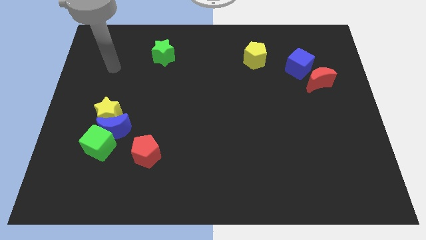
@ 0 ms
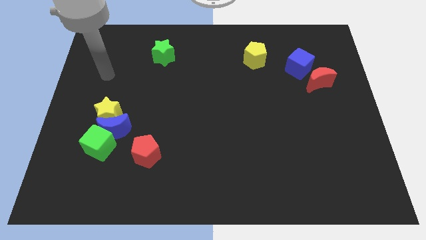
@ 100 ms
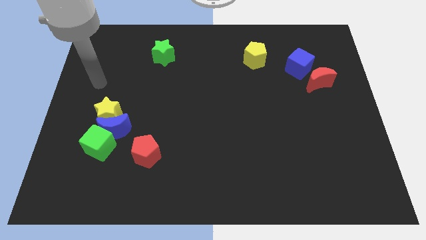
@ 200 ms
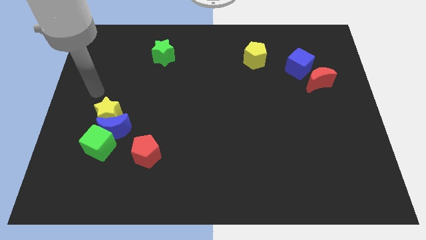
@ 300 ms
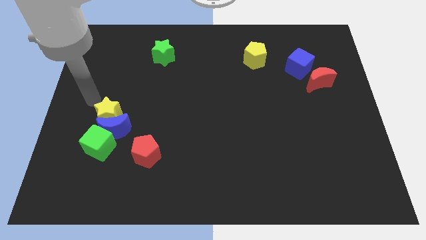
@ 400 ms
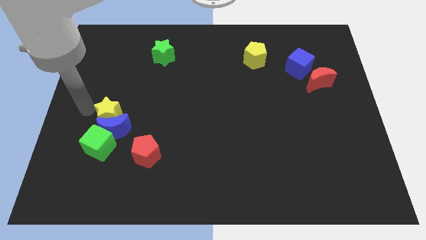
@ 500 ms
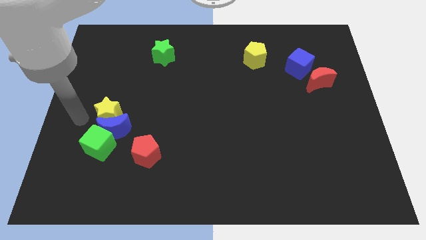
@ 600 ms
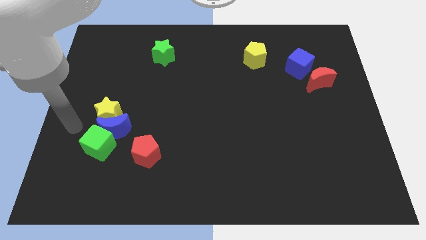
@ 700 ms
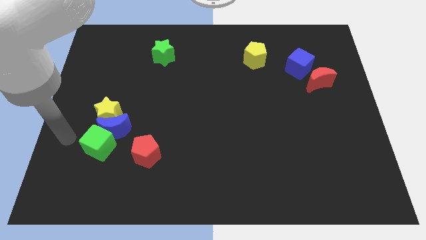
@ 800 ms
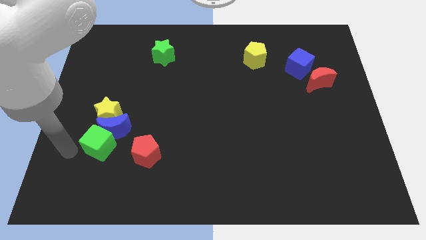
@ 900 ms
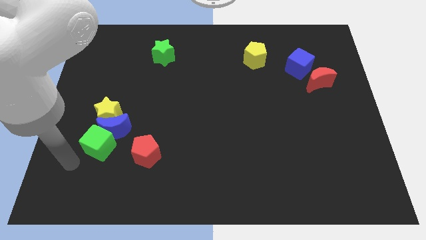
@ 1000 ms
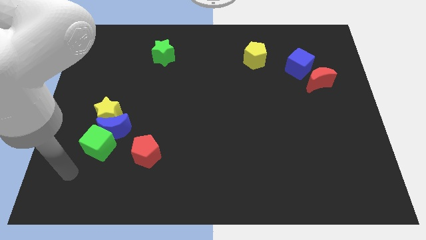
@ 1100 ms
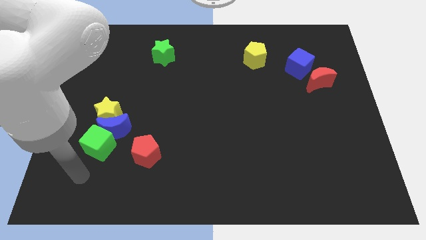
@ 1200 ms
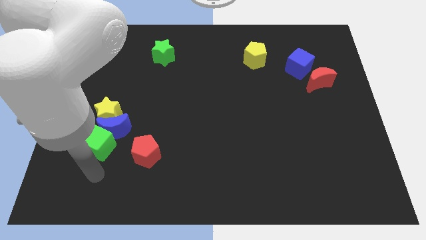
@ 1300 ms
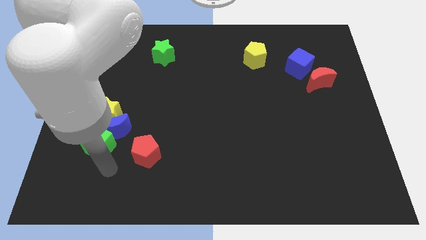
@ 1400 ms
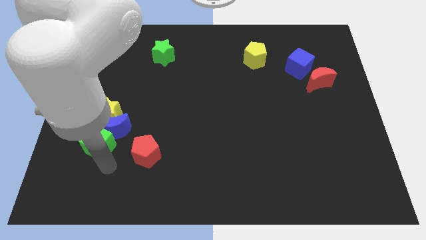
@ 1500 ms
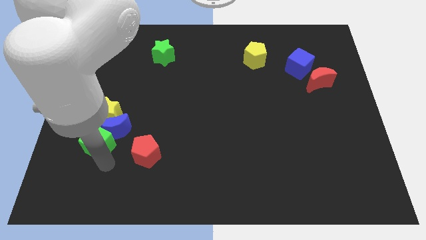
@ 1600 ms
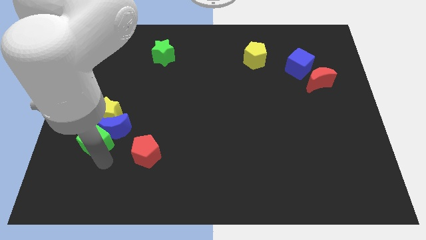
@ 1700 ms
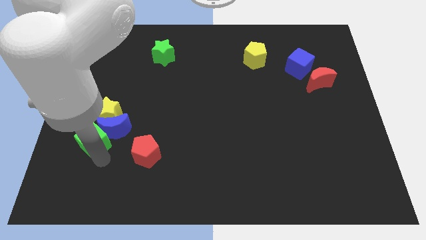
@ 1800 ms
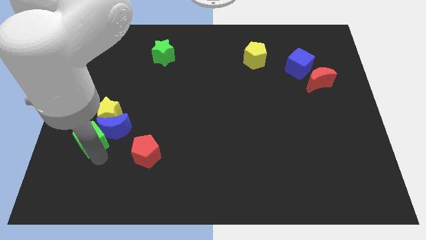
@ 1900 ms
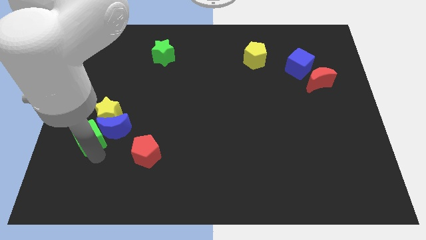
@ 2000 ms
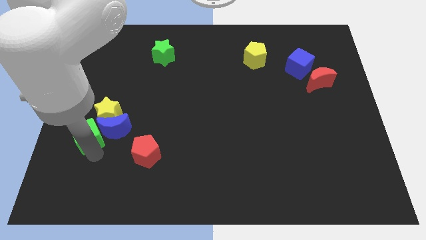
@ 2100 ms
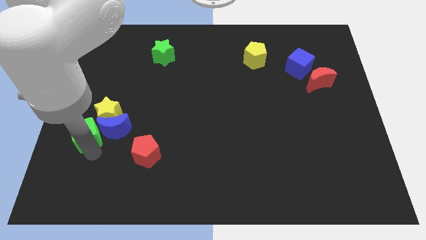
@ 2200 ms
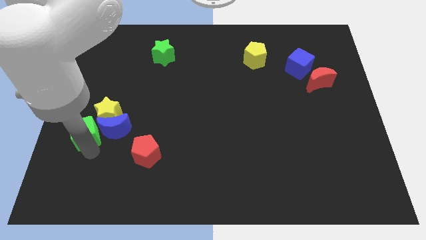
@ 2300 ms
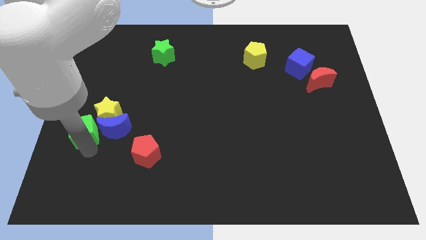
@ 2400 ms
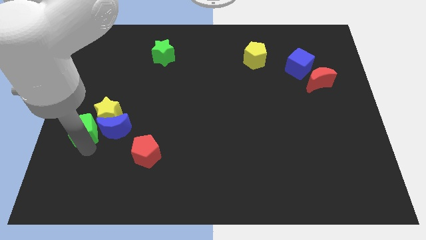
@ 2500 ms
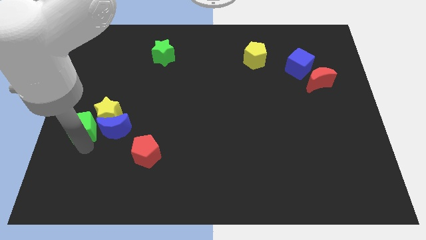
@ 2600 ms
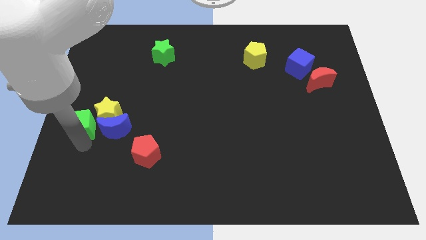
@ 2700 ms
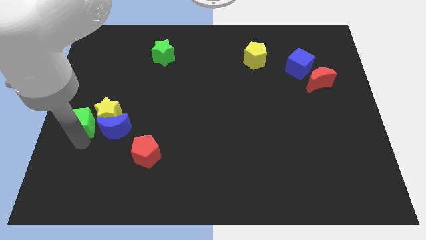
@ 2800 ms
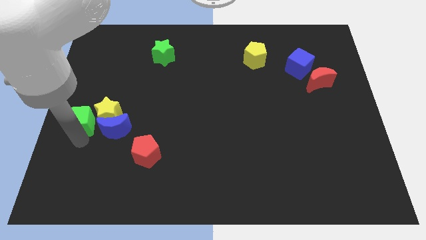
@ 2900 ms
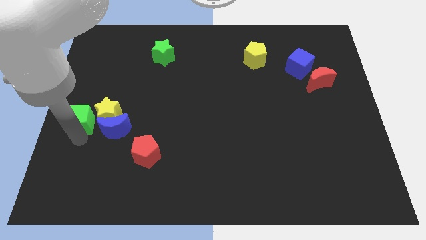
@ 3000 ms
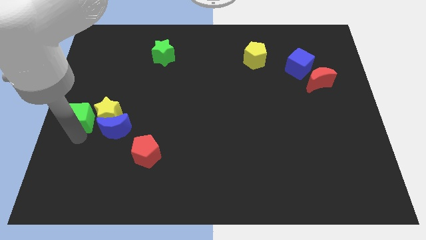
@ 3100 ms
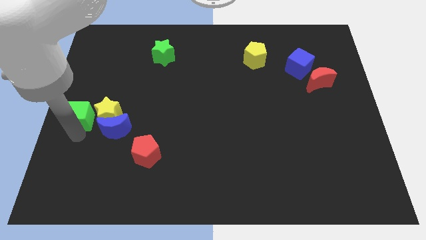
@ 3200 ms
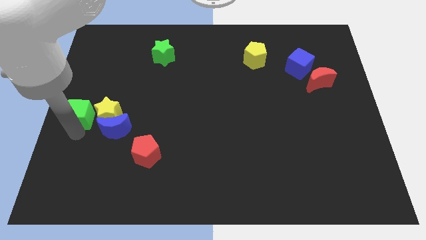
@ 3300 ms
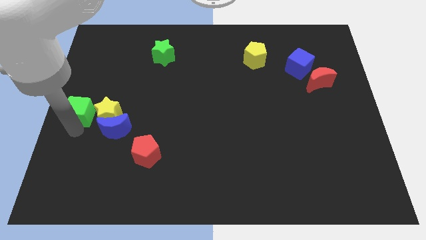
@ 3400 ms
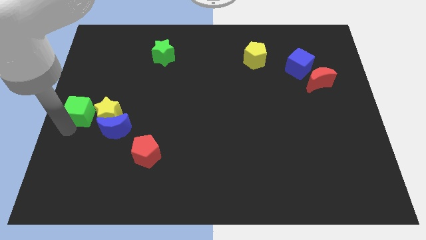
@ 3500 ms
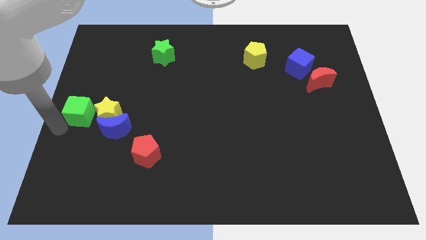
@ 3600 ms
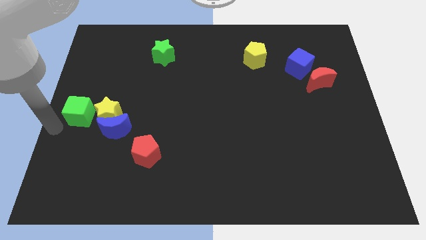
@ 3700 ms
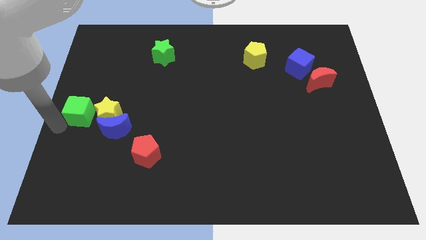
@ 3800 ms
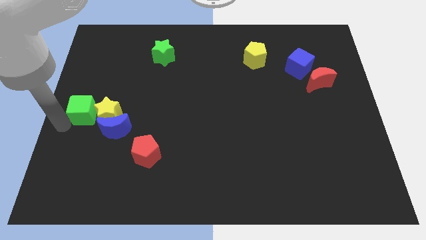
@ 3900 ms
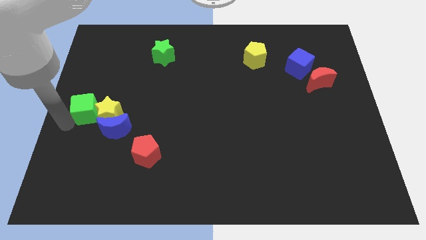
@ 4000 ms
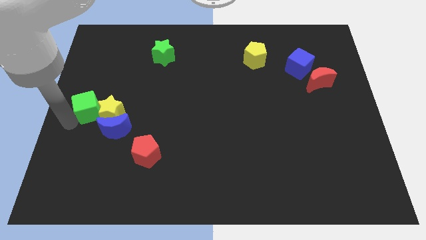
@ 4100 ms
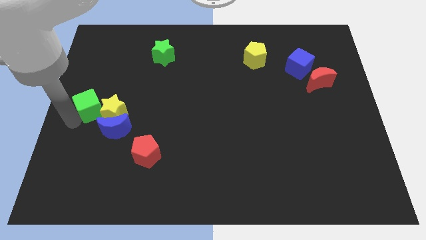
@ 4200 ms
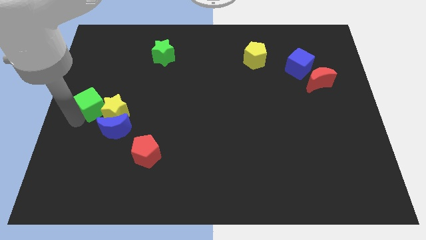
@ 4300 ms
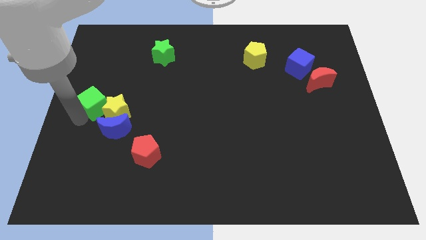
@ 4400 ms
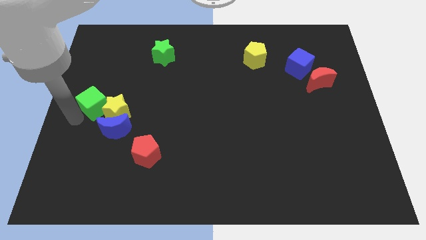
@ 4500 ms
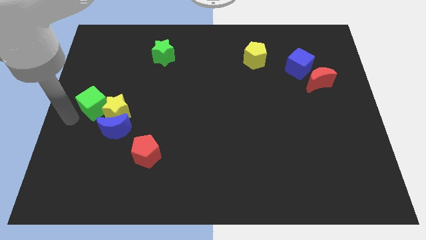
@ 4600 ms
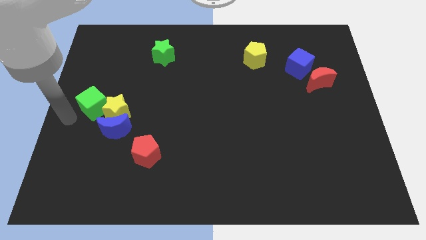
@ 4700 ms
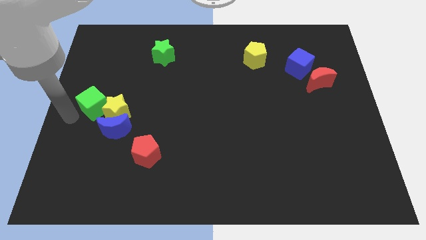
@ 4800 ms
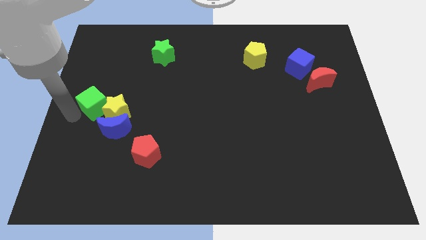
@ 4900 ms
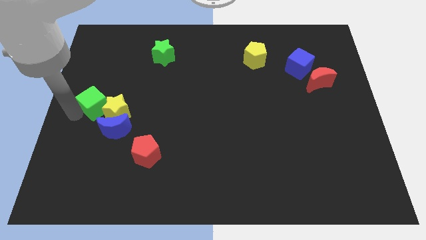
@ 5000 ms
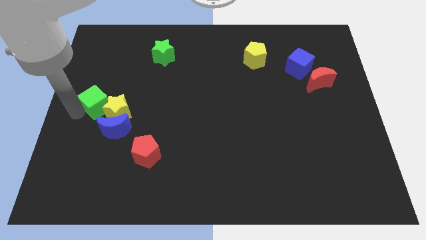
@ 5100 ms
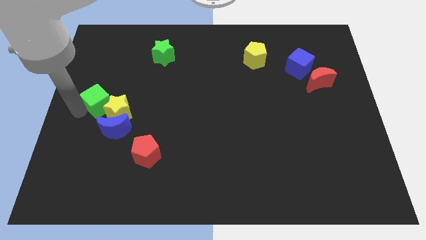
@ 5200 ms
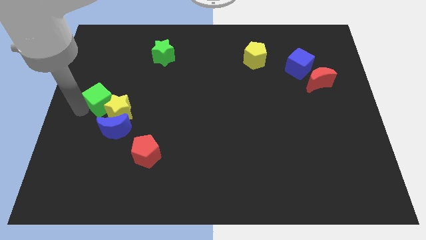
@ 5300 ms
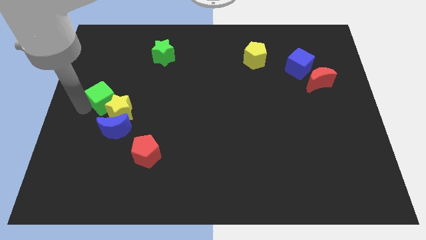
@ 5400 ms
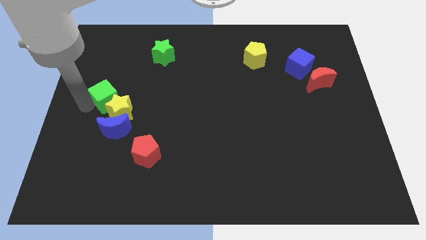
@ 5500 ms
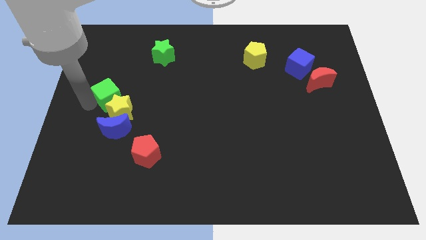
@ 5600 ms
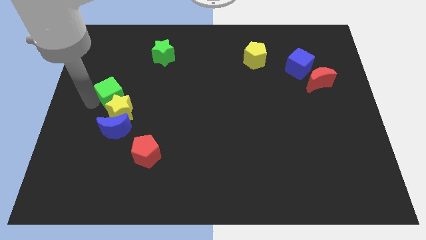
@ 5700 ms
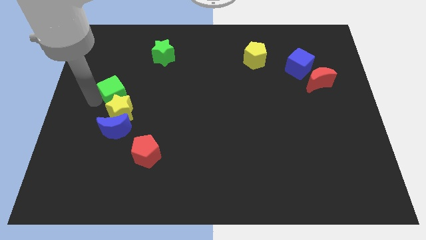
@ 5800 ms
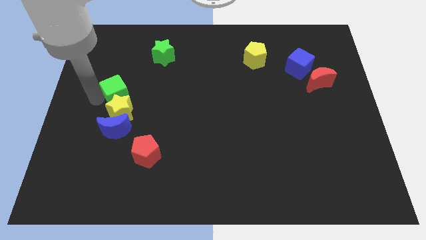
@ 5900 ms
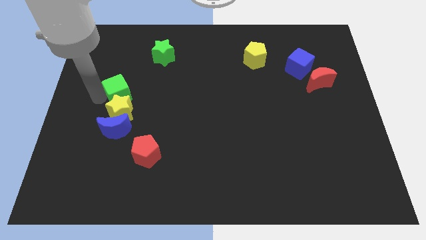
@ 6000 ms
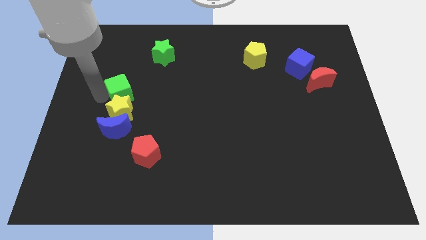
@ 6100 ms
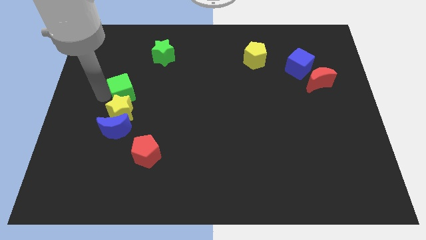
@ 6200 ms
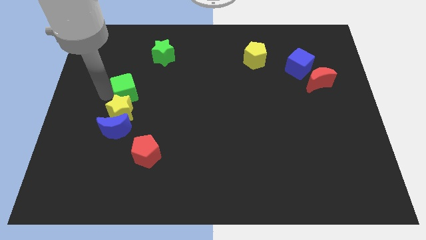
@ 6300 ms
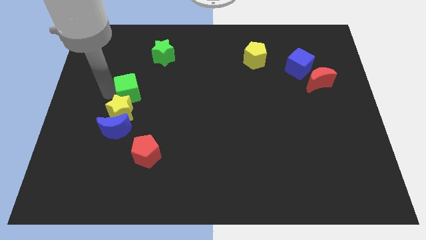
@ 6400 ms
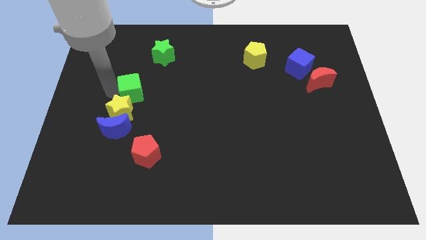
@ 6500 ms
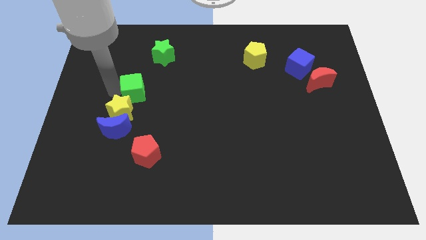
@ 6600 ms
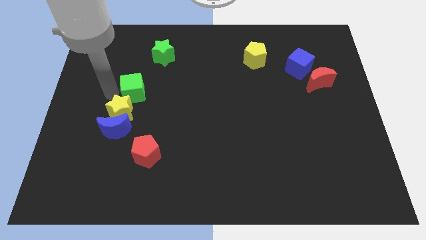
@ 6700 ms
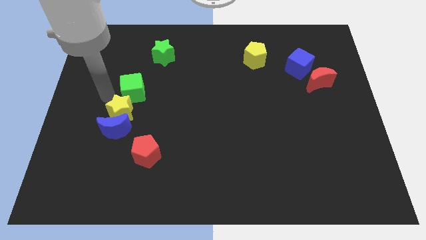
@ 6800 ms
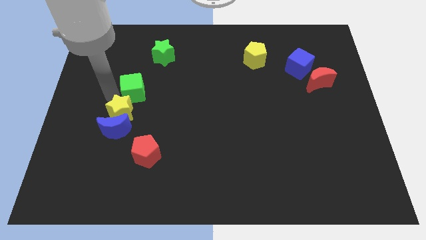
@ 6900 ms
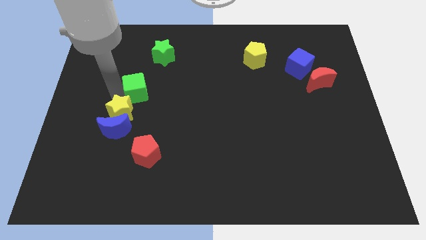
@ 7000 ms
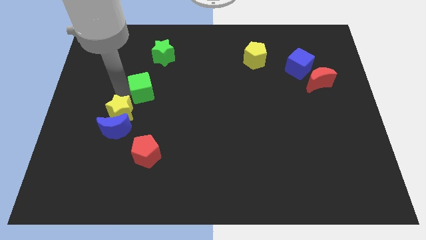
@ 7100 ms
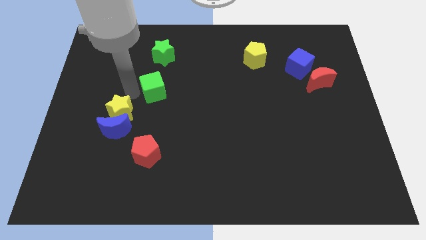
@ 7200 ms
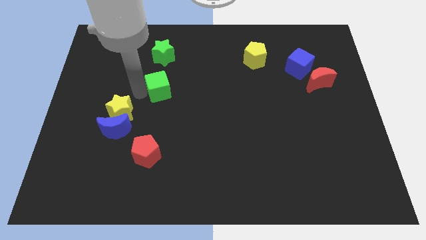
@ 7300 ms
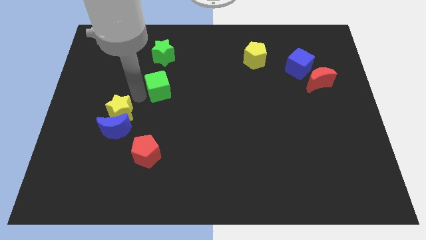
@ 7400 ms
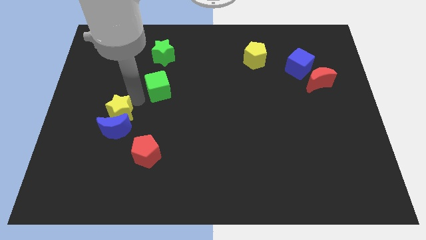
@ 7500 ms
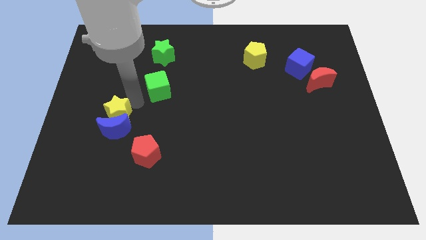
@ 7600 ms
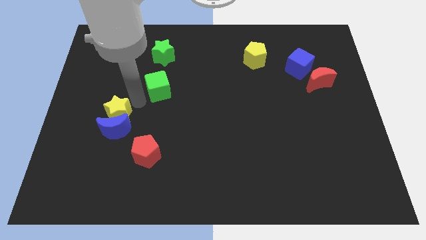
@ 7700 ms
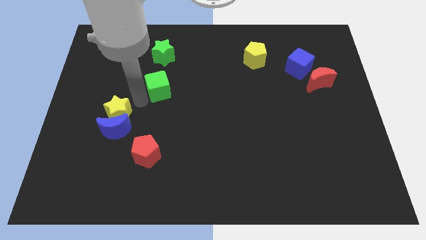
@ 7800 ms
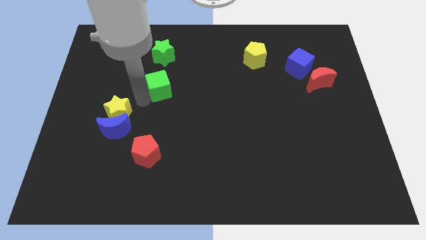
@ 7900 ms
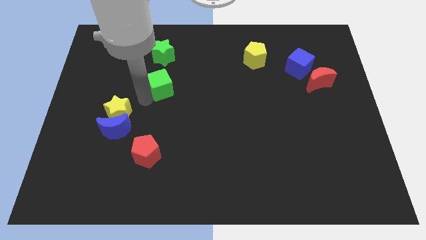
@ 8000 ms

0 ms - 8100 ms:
push the green cube upwards and then to the right

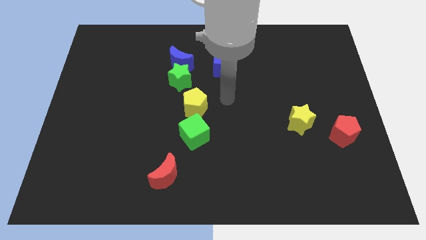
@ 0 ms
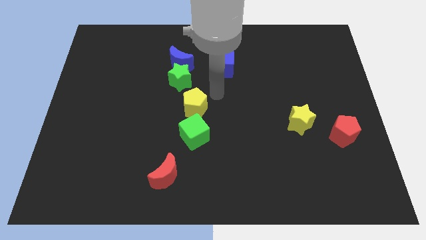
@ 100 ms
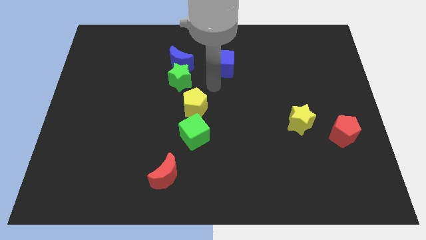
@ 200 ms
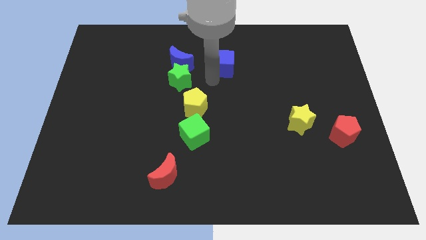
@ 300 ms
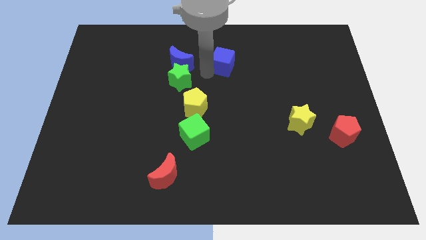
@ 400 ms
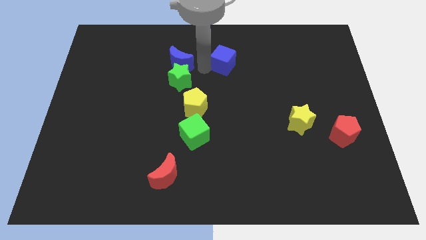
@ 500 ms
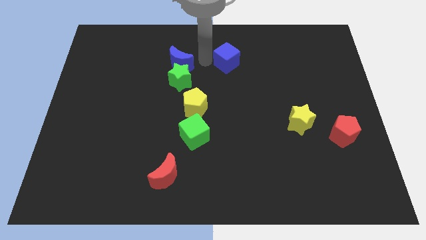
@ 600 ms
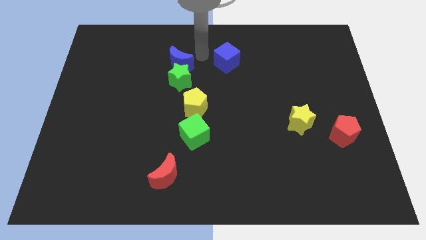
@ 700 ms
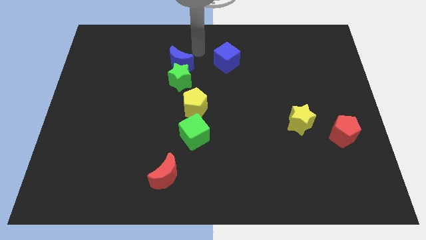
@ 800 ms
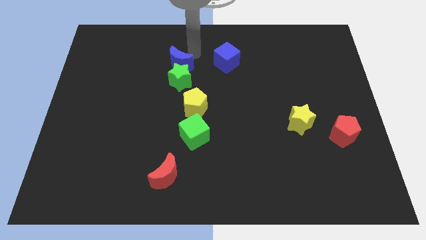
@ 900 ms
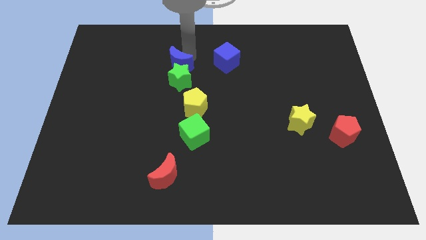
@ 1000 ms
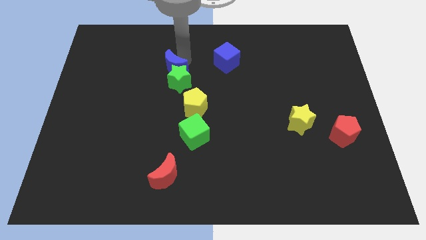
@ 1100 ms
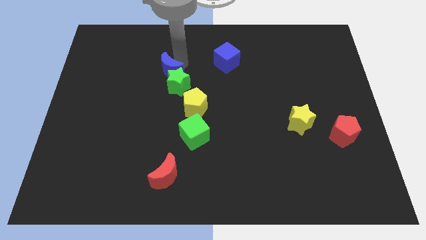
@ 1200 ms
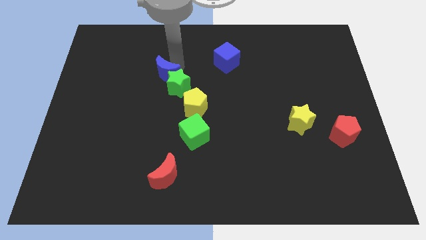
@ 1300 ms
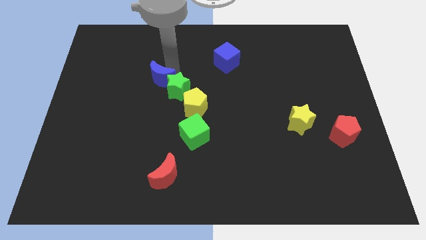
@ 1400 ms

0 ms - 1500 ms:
push the blue moon slightly down and then to the left
